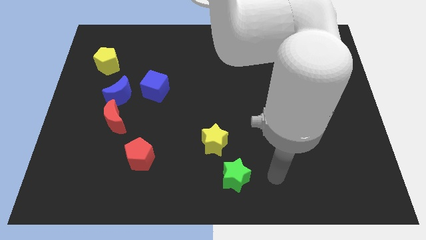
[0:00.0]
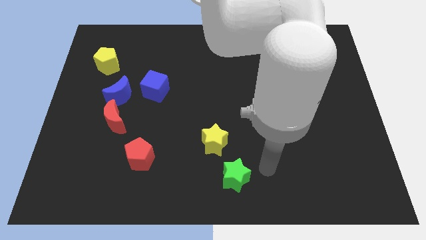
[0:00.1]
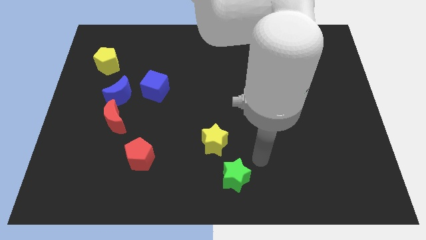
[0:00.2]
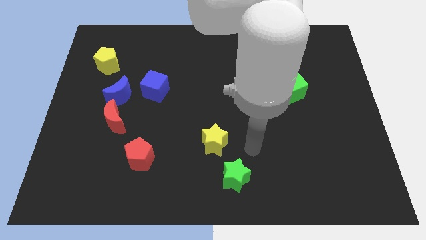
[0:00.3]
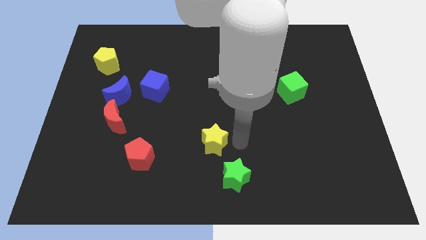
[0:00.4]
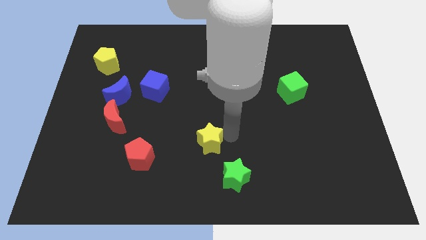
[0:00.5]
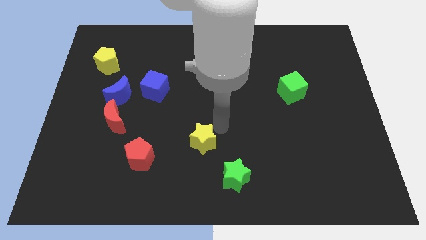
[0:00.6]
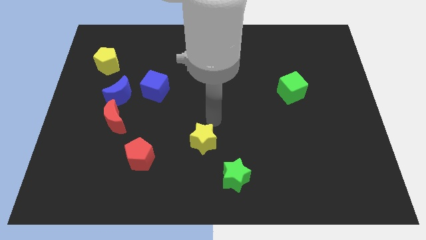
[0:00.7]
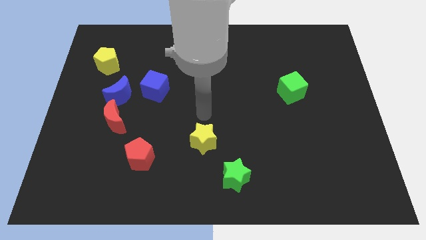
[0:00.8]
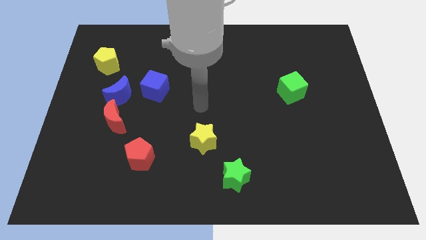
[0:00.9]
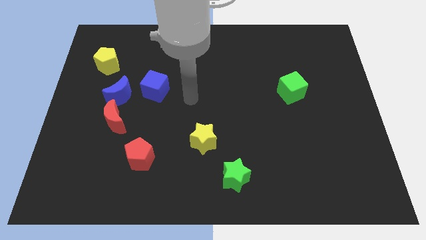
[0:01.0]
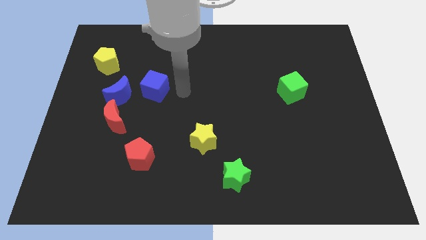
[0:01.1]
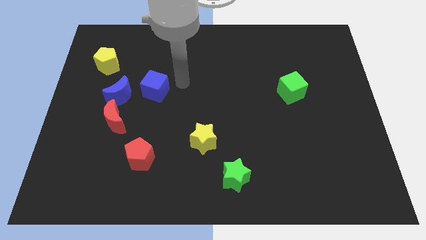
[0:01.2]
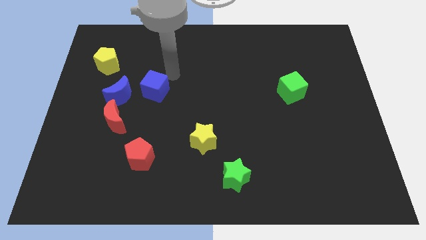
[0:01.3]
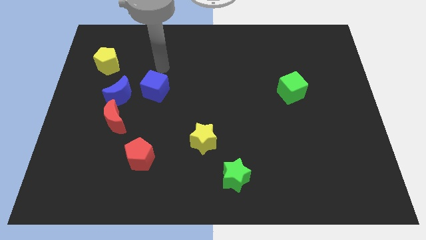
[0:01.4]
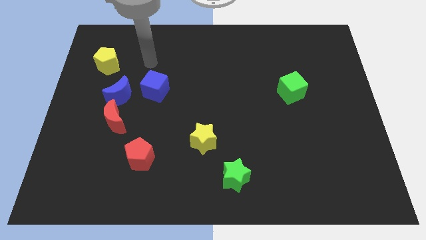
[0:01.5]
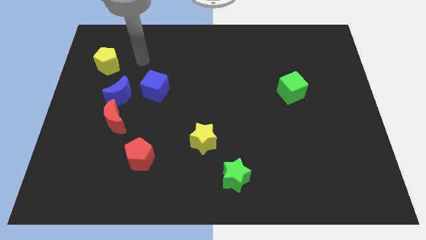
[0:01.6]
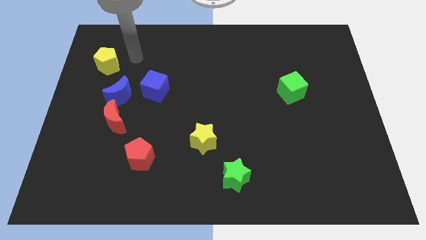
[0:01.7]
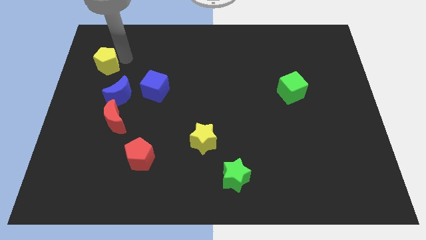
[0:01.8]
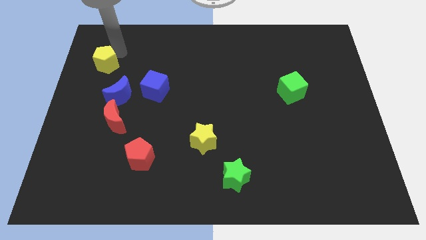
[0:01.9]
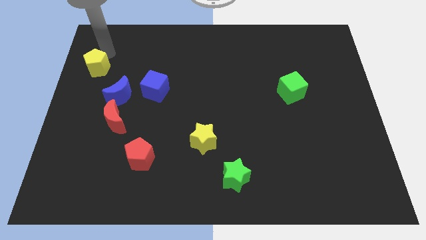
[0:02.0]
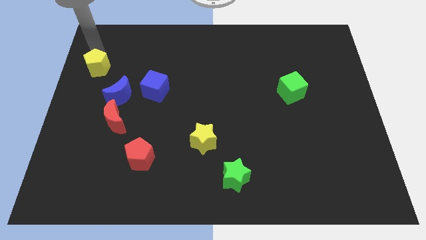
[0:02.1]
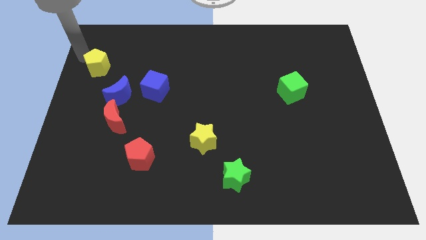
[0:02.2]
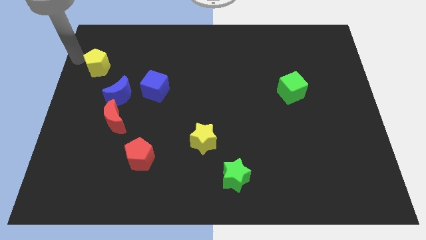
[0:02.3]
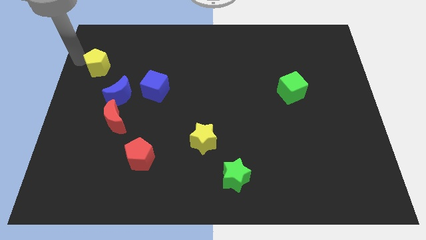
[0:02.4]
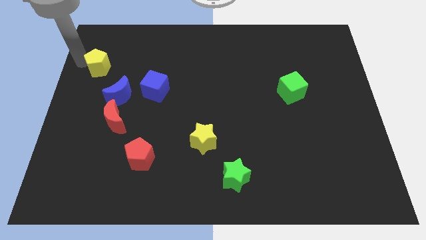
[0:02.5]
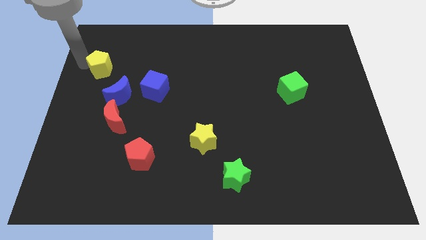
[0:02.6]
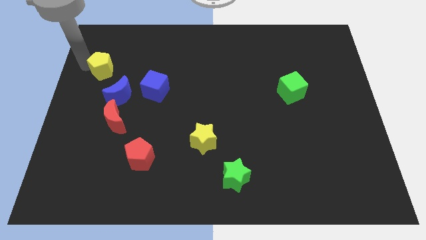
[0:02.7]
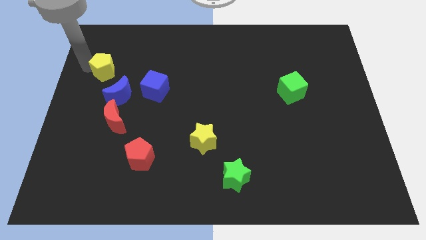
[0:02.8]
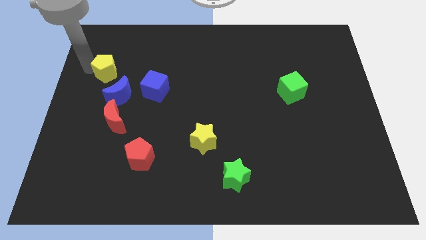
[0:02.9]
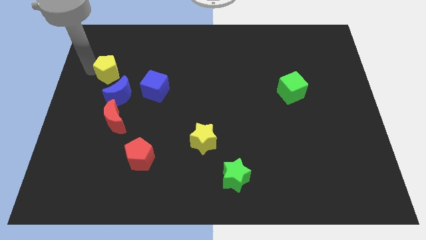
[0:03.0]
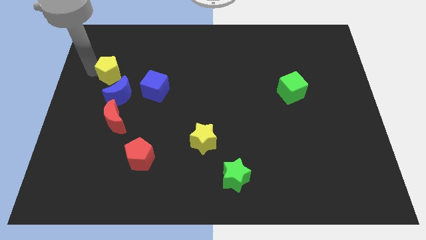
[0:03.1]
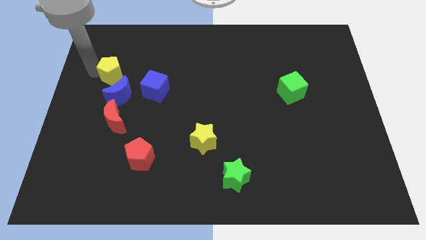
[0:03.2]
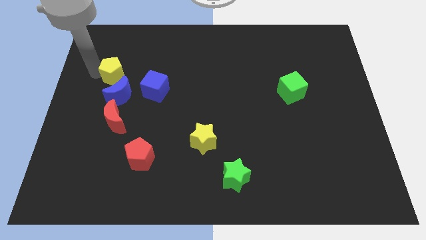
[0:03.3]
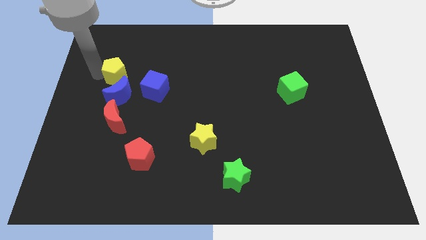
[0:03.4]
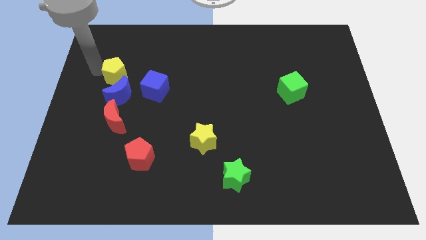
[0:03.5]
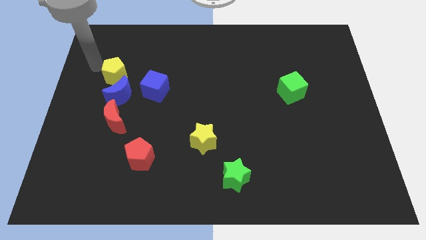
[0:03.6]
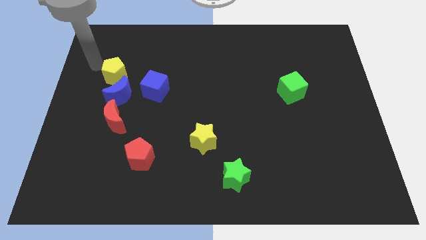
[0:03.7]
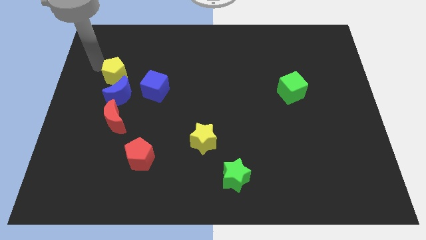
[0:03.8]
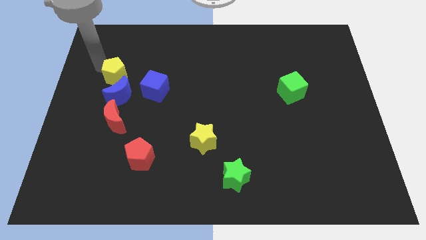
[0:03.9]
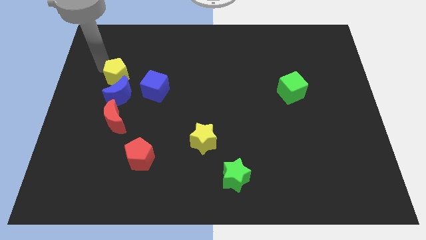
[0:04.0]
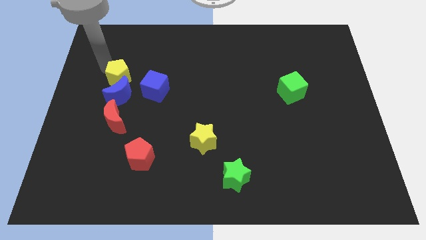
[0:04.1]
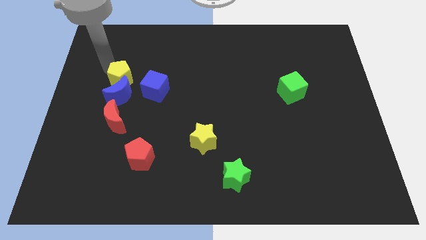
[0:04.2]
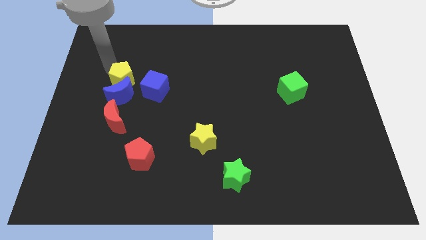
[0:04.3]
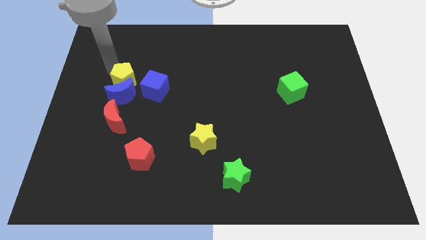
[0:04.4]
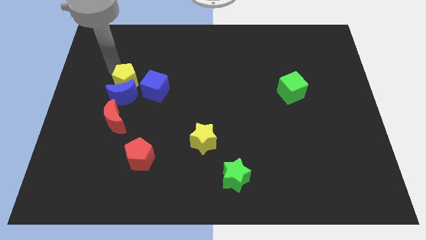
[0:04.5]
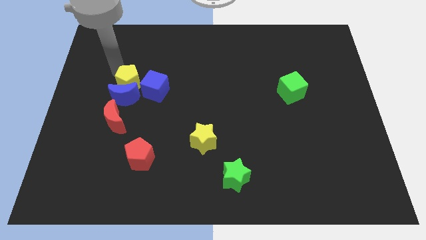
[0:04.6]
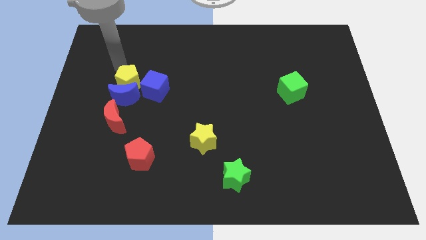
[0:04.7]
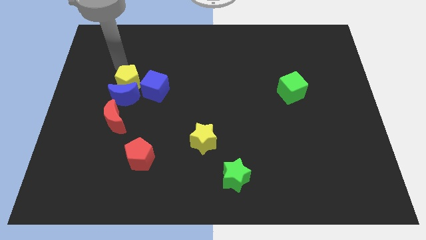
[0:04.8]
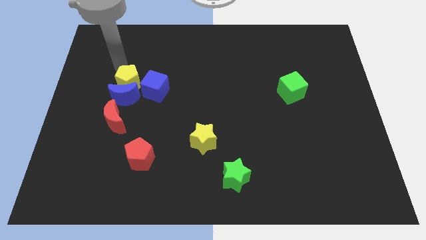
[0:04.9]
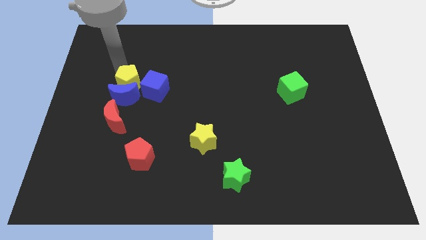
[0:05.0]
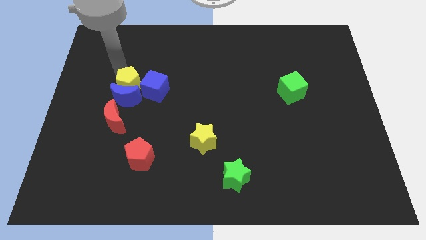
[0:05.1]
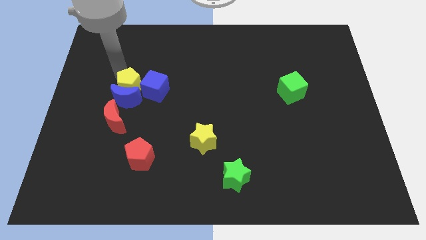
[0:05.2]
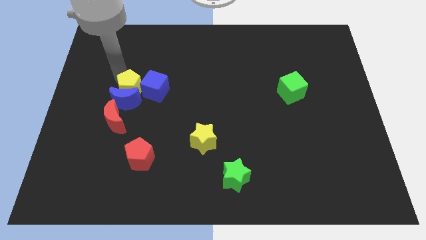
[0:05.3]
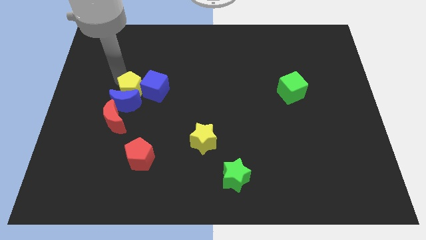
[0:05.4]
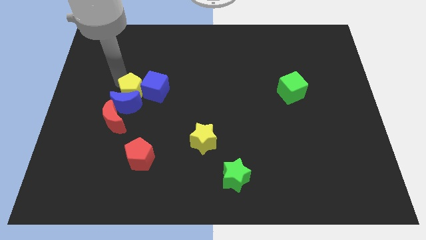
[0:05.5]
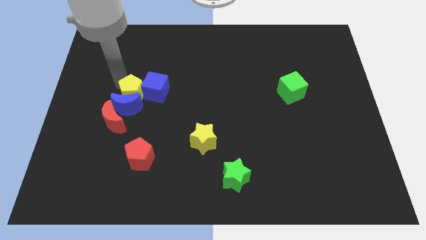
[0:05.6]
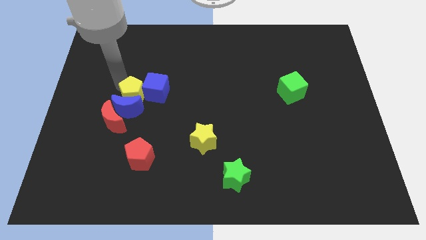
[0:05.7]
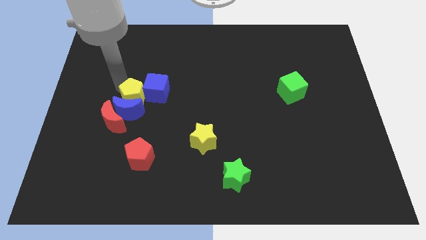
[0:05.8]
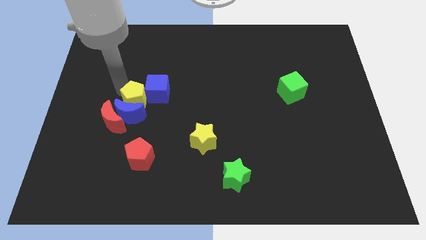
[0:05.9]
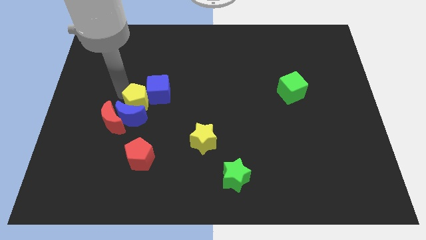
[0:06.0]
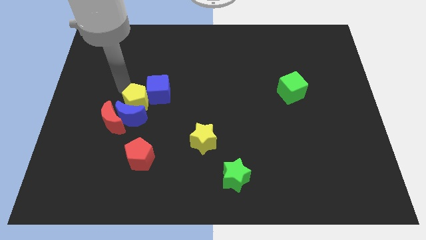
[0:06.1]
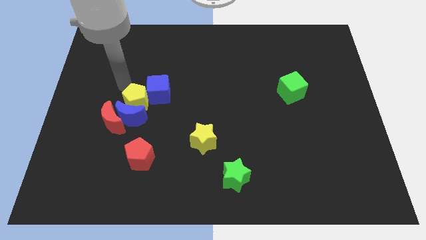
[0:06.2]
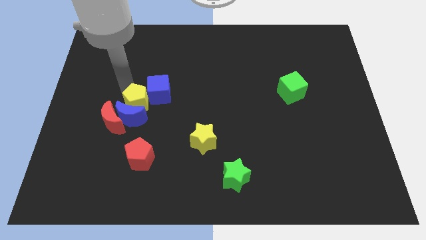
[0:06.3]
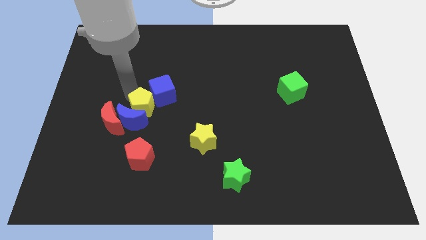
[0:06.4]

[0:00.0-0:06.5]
move the yellow pentagon to the bottom side of the blue cube

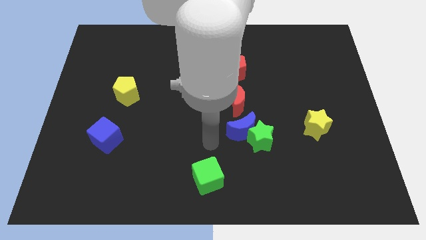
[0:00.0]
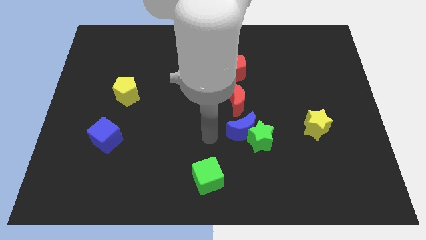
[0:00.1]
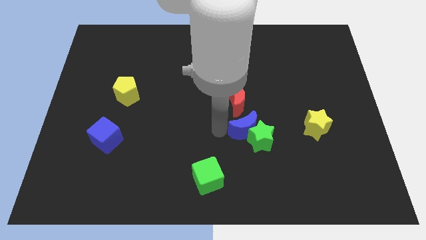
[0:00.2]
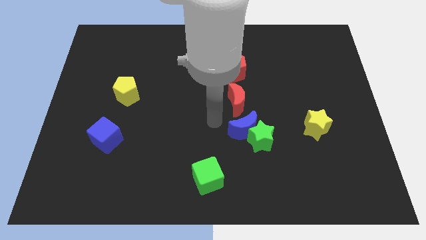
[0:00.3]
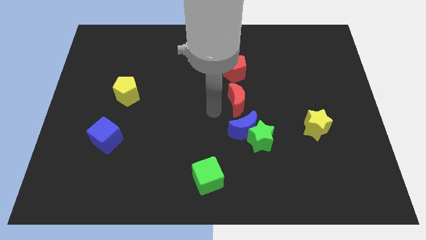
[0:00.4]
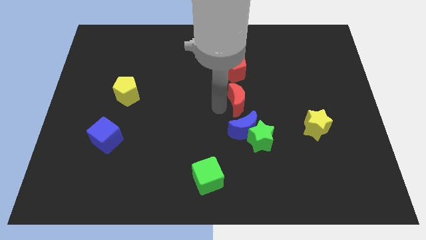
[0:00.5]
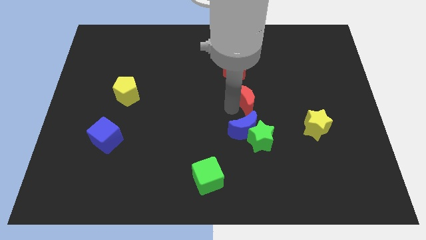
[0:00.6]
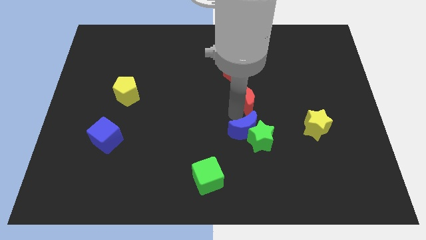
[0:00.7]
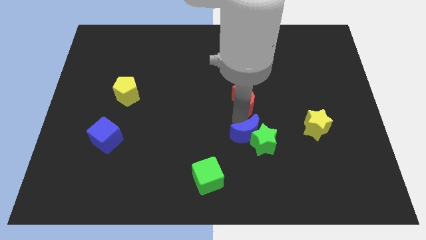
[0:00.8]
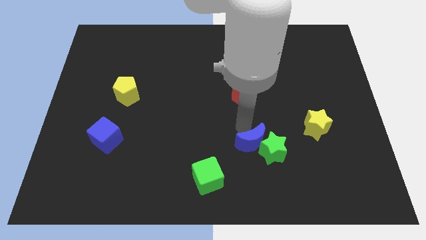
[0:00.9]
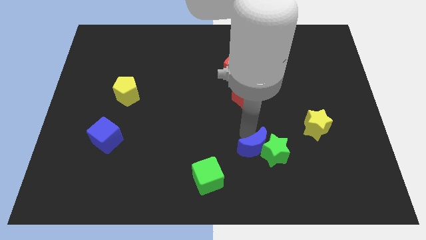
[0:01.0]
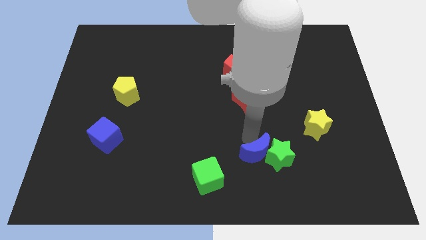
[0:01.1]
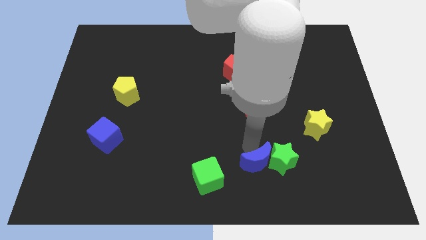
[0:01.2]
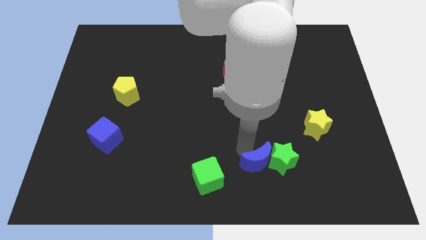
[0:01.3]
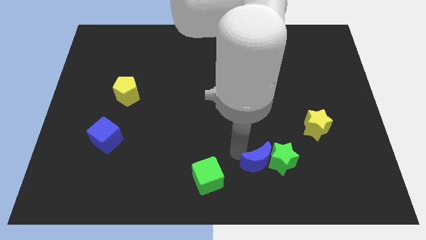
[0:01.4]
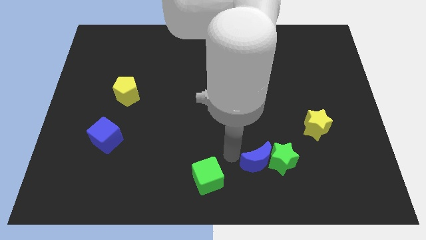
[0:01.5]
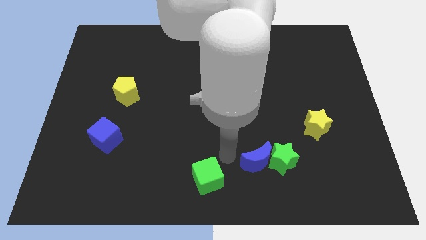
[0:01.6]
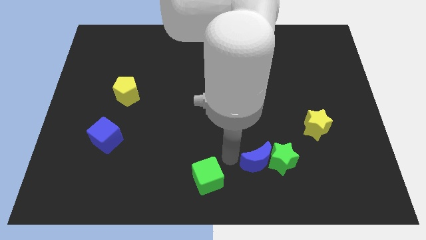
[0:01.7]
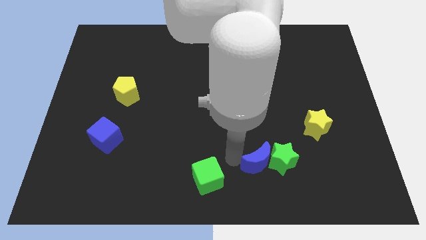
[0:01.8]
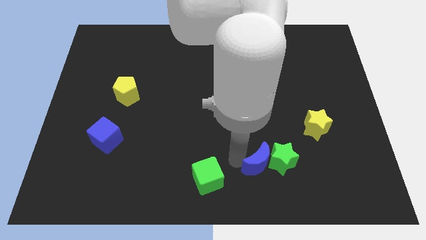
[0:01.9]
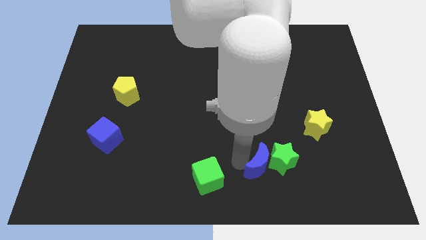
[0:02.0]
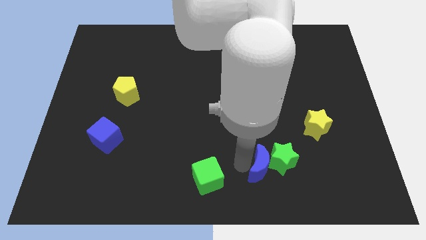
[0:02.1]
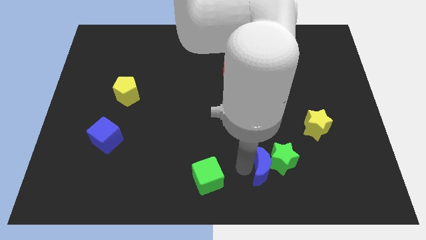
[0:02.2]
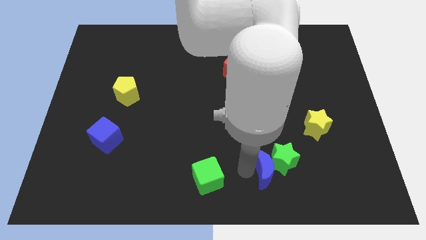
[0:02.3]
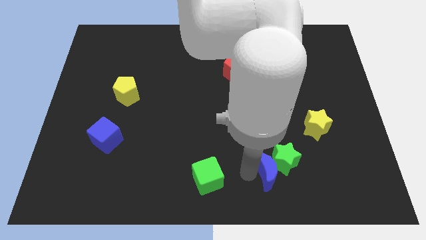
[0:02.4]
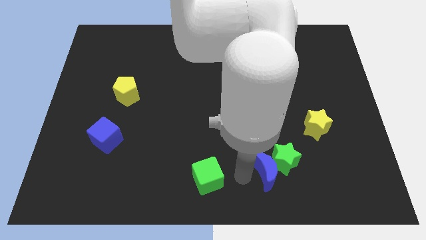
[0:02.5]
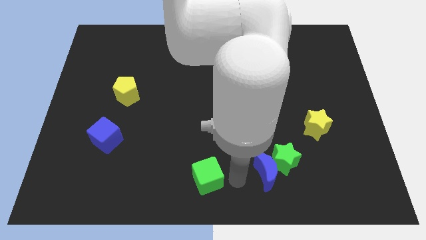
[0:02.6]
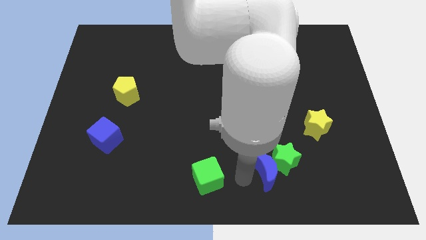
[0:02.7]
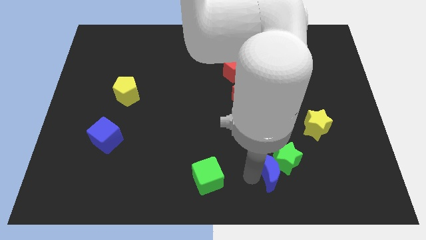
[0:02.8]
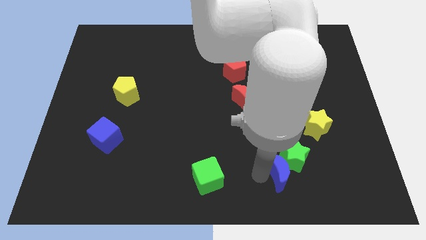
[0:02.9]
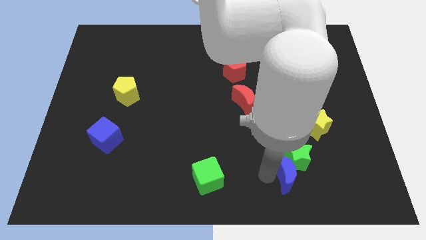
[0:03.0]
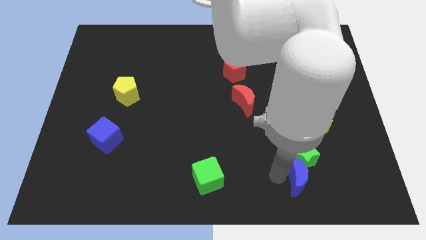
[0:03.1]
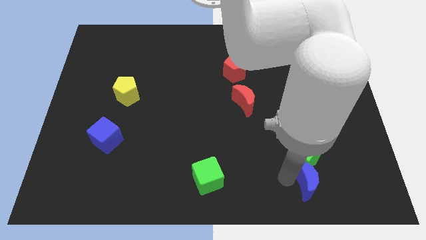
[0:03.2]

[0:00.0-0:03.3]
put the blue moon to the bottom of the yellow star
